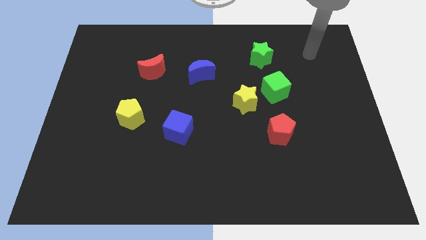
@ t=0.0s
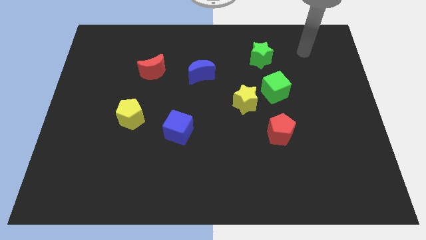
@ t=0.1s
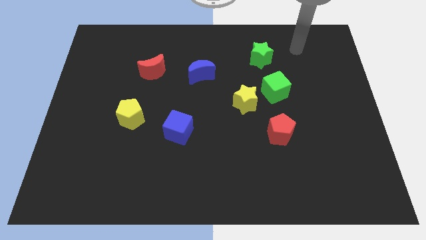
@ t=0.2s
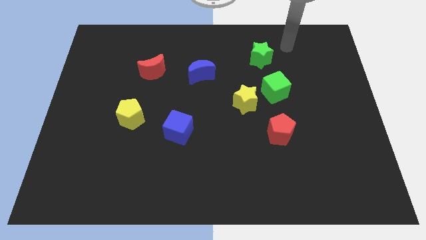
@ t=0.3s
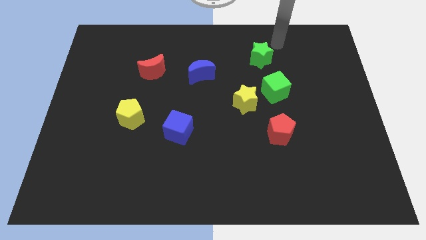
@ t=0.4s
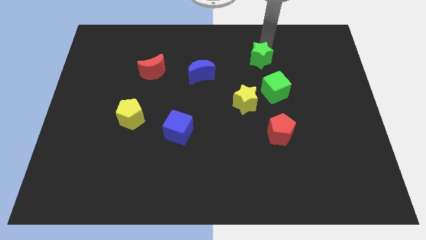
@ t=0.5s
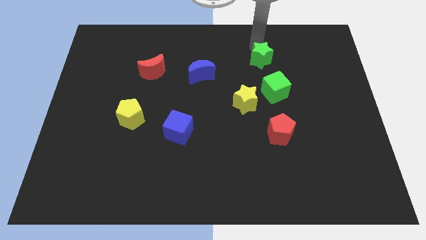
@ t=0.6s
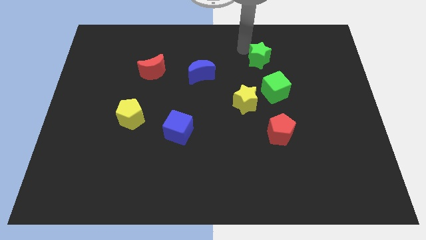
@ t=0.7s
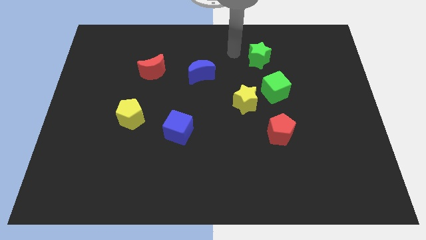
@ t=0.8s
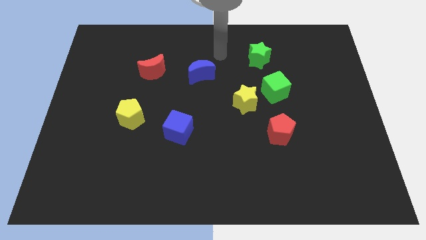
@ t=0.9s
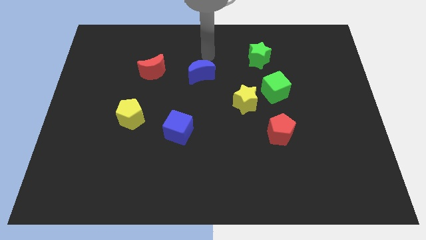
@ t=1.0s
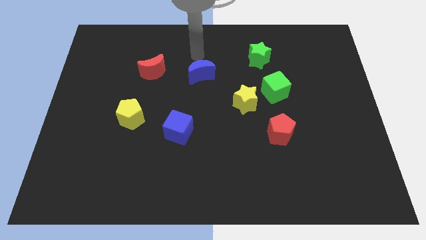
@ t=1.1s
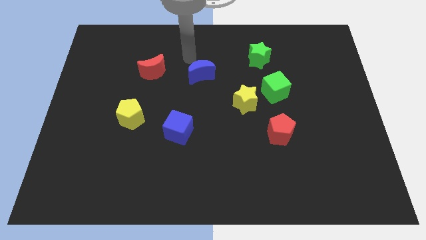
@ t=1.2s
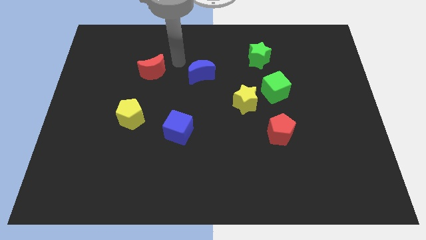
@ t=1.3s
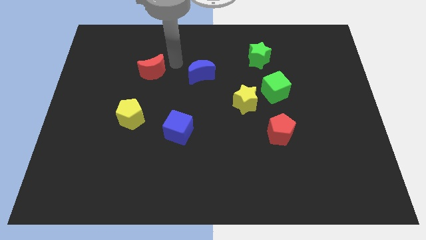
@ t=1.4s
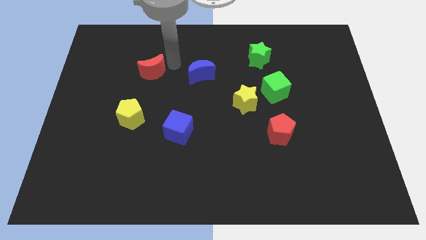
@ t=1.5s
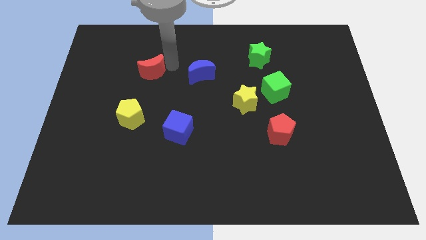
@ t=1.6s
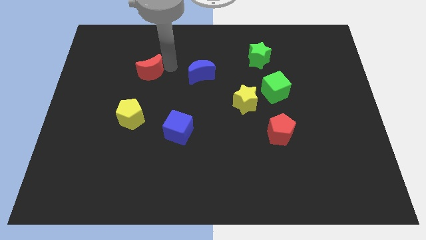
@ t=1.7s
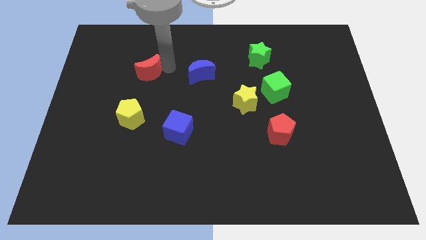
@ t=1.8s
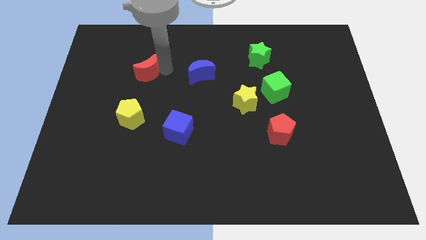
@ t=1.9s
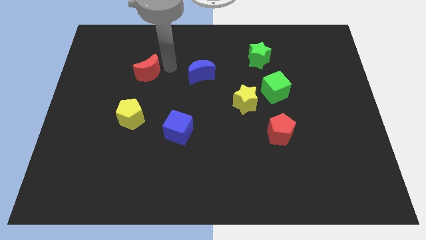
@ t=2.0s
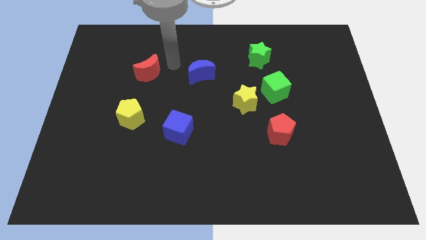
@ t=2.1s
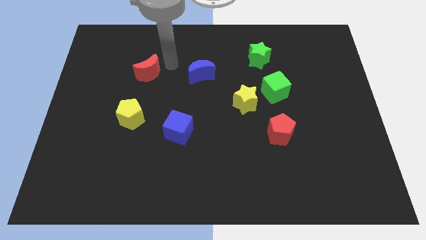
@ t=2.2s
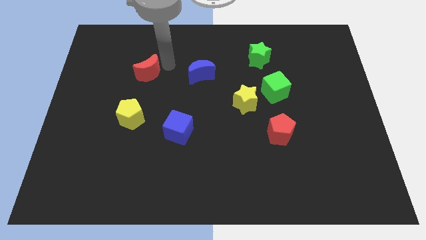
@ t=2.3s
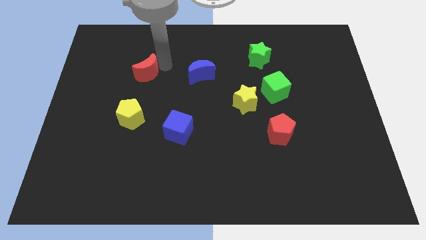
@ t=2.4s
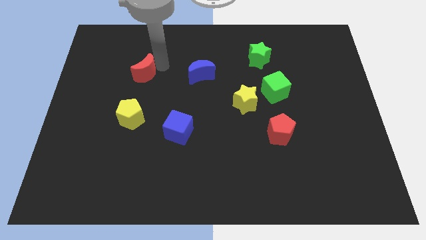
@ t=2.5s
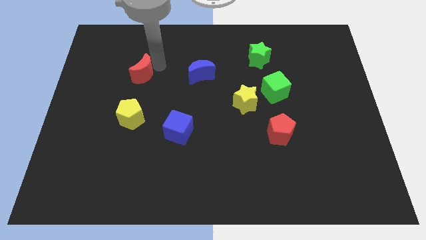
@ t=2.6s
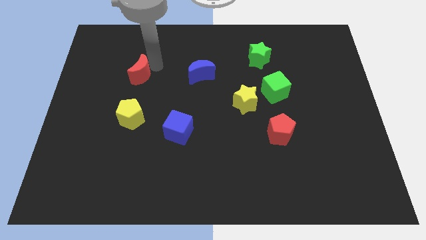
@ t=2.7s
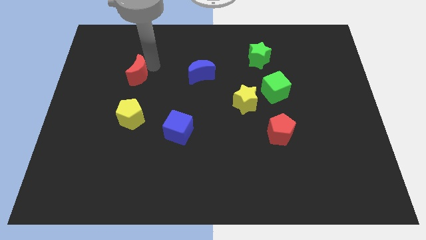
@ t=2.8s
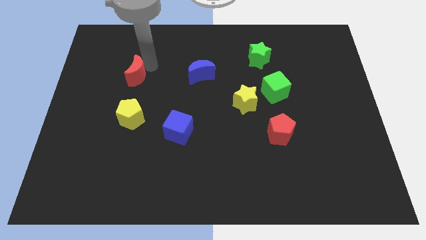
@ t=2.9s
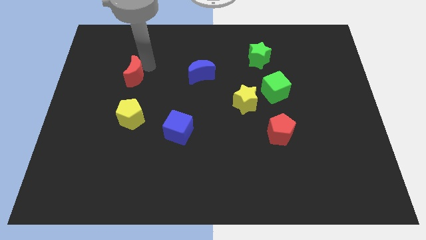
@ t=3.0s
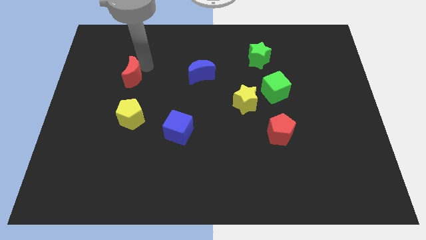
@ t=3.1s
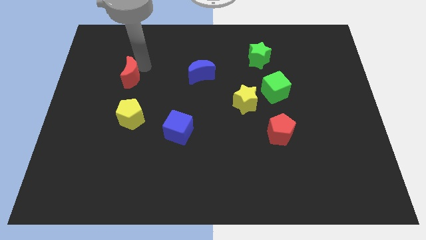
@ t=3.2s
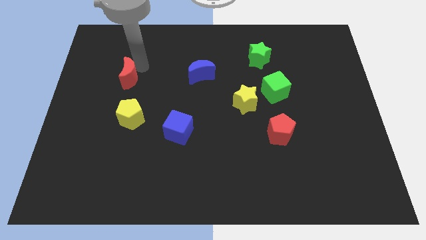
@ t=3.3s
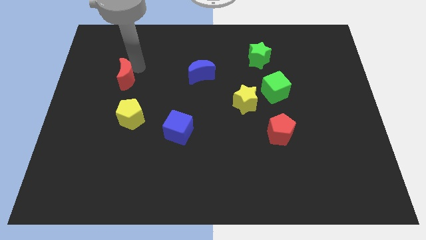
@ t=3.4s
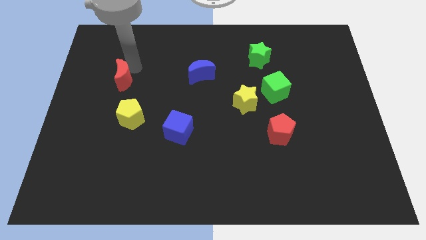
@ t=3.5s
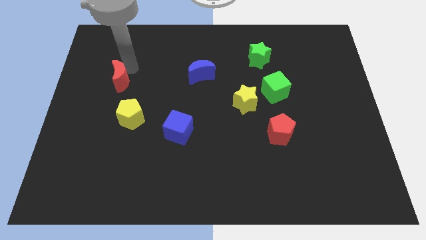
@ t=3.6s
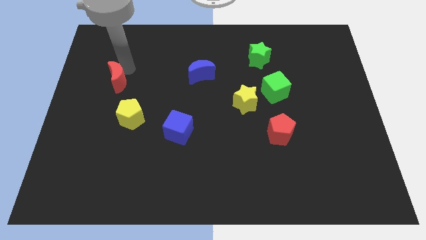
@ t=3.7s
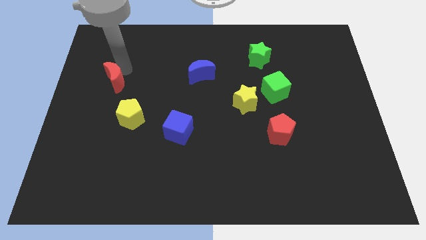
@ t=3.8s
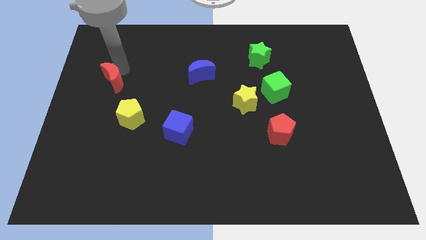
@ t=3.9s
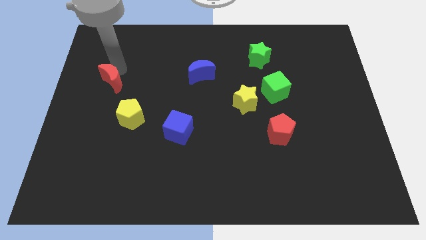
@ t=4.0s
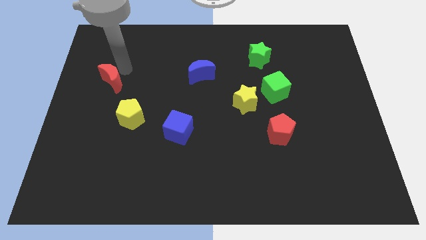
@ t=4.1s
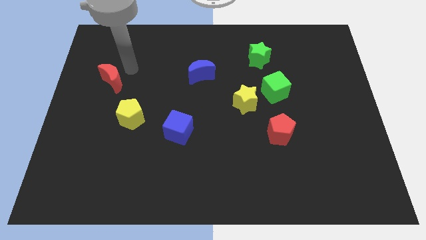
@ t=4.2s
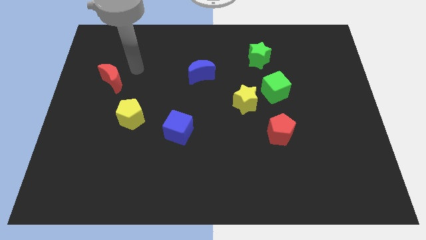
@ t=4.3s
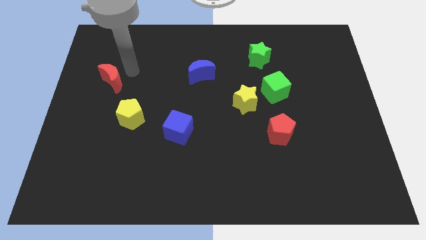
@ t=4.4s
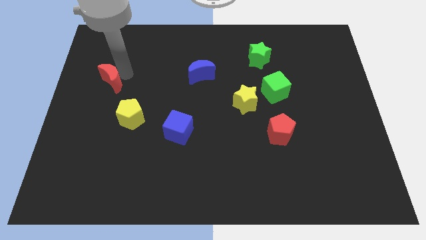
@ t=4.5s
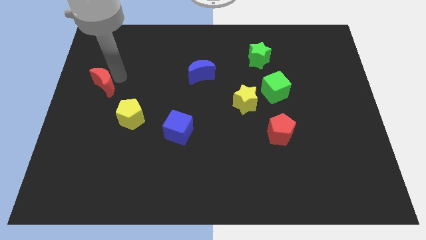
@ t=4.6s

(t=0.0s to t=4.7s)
slide the red moon to the left side of the board

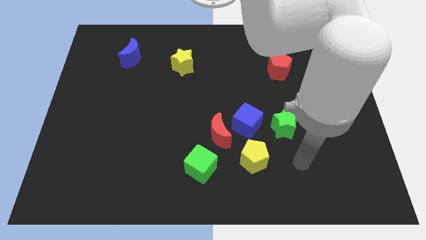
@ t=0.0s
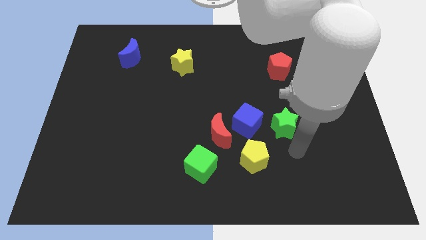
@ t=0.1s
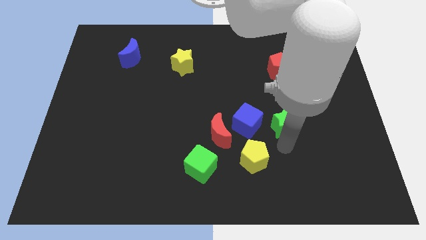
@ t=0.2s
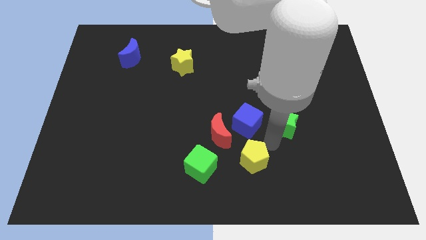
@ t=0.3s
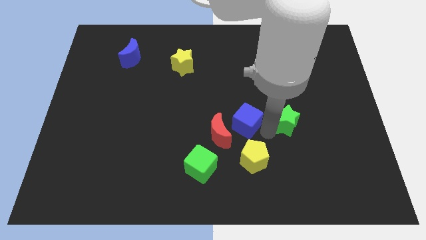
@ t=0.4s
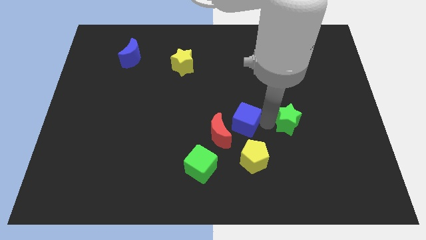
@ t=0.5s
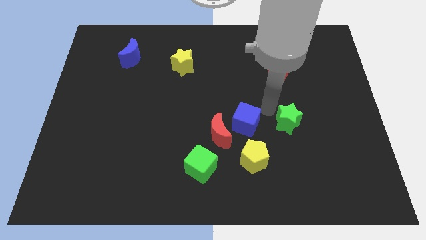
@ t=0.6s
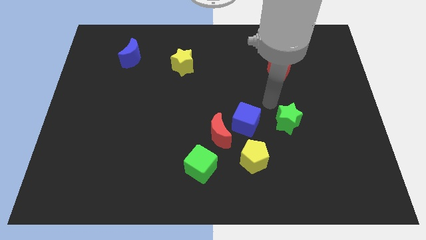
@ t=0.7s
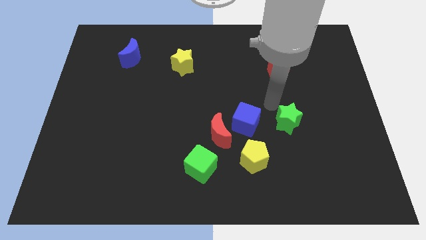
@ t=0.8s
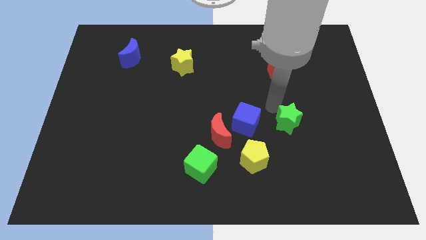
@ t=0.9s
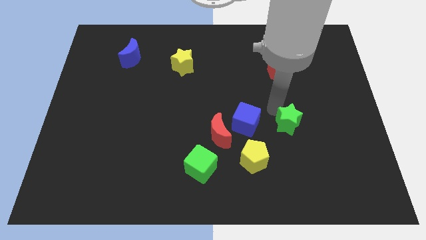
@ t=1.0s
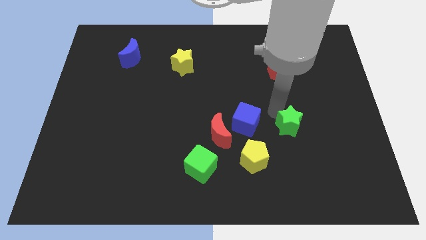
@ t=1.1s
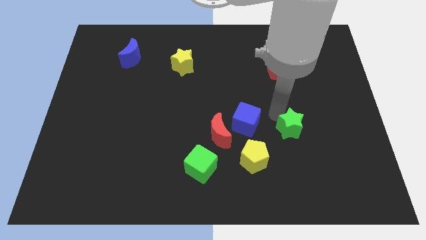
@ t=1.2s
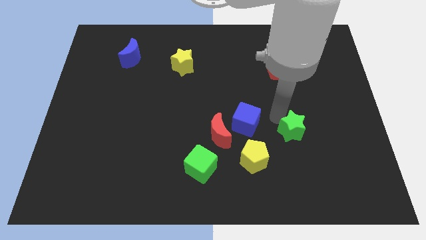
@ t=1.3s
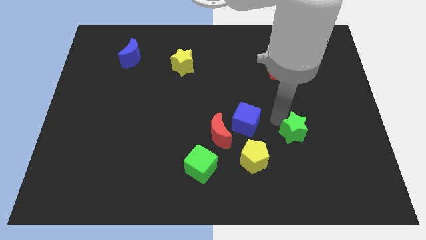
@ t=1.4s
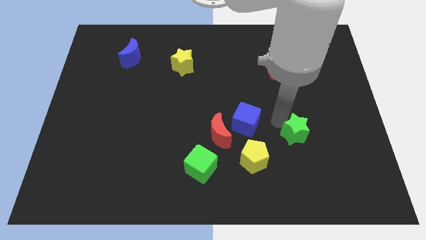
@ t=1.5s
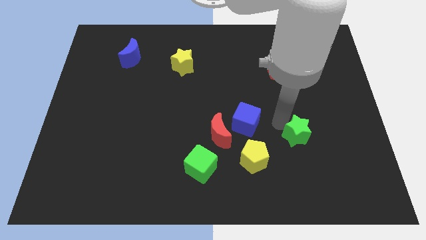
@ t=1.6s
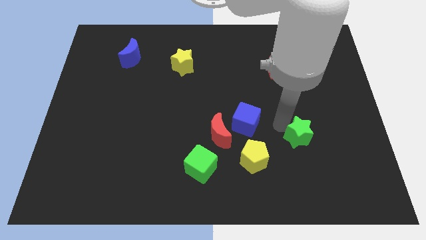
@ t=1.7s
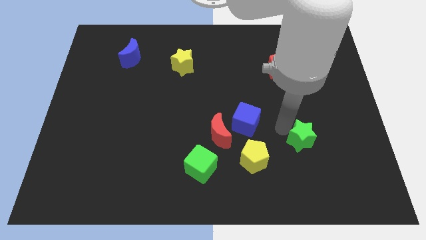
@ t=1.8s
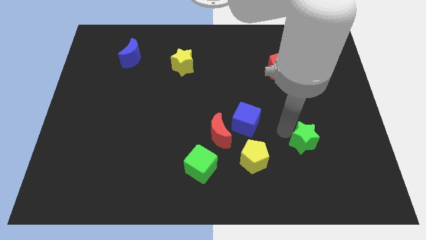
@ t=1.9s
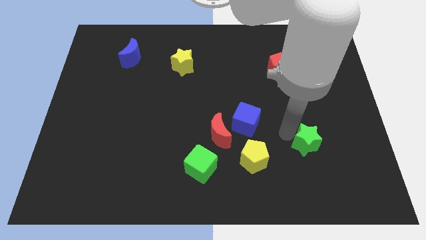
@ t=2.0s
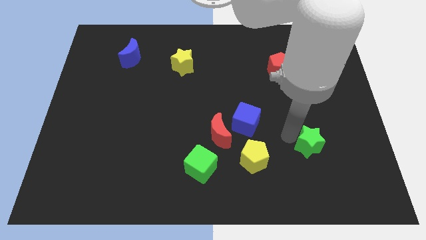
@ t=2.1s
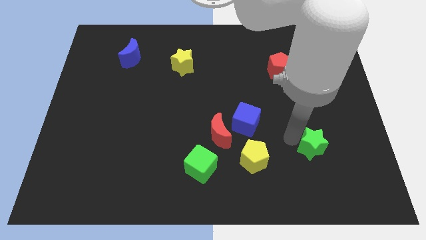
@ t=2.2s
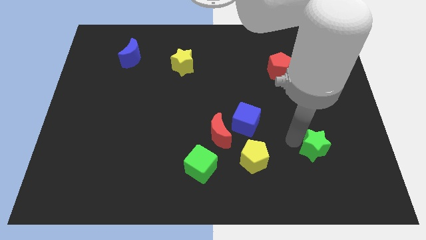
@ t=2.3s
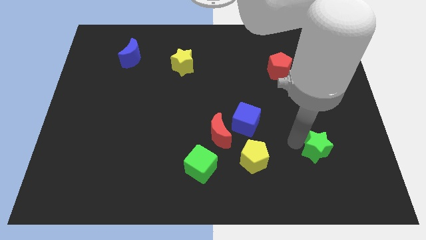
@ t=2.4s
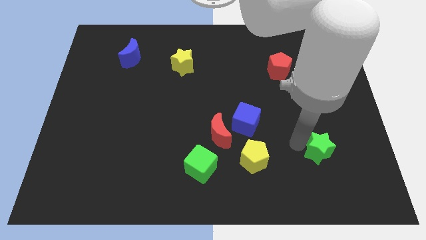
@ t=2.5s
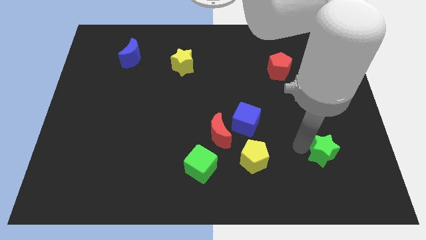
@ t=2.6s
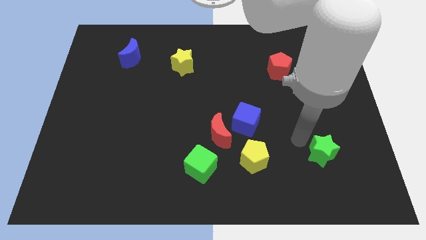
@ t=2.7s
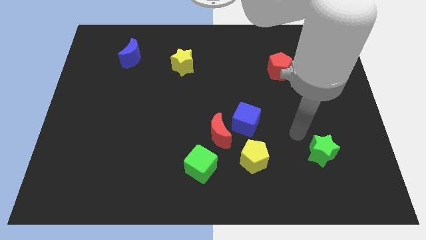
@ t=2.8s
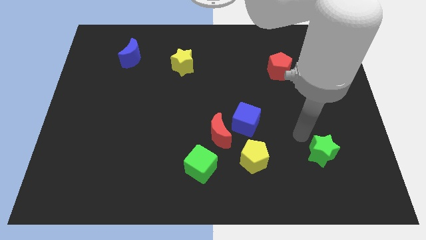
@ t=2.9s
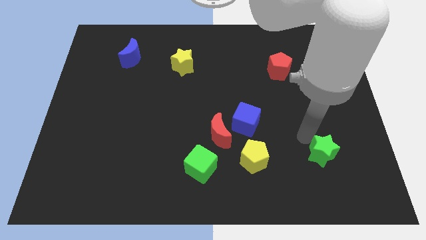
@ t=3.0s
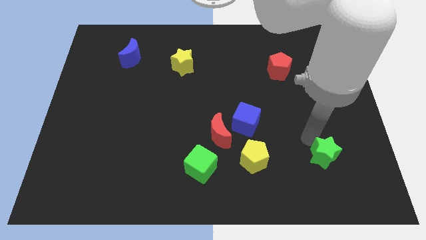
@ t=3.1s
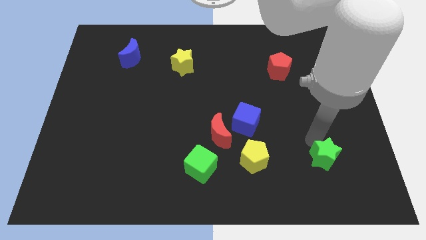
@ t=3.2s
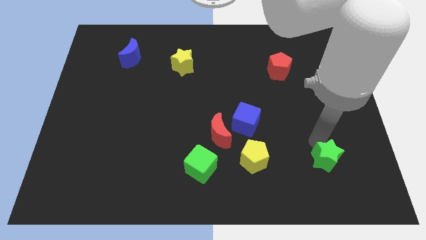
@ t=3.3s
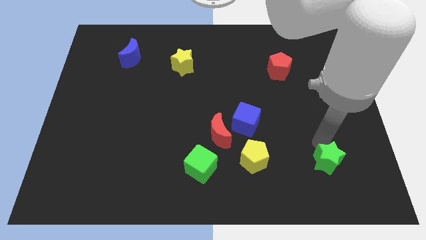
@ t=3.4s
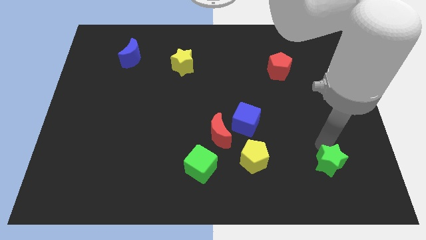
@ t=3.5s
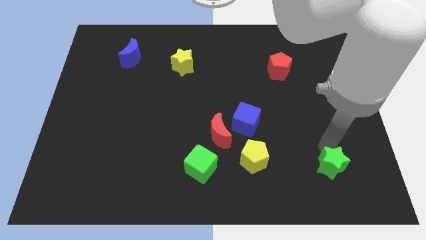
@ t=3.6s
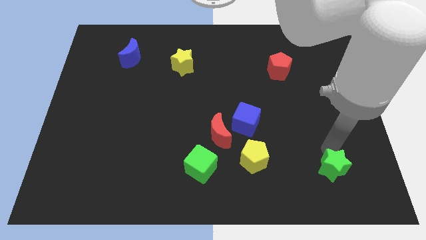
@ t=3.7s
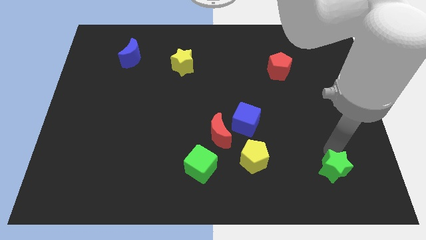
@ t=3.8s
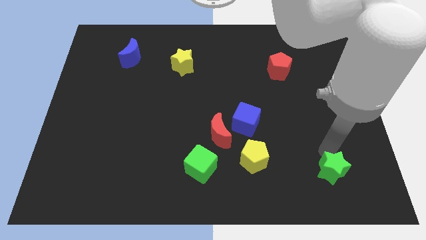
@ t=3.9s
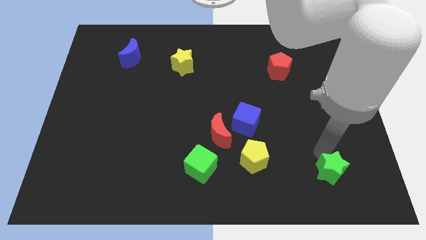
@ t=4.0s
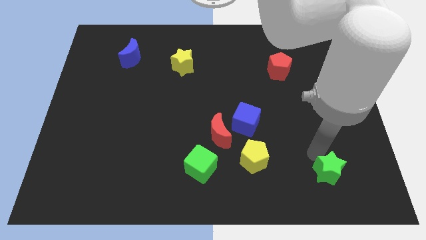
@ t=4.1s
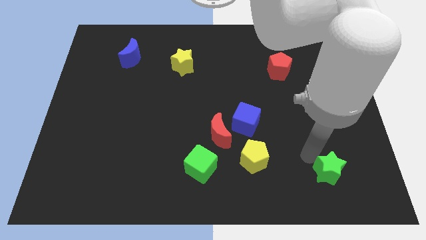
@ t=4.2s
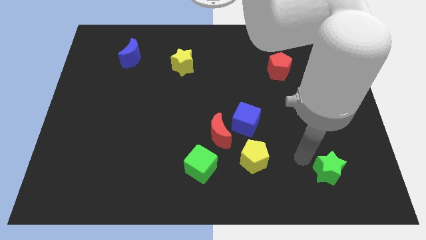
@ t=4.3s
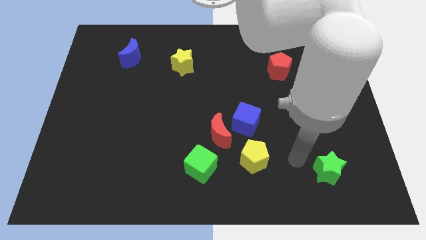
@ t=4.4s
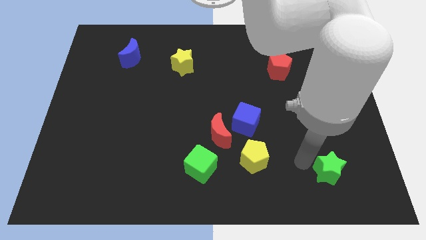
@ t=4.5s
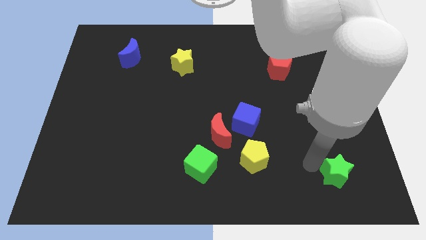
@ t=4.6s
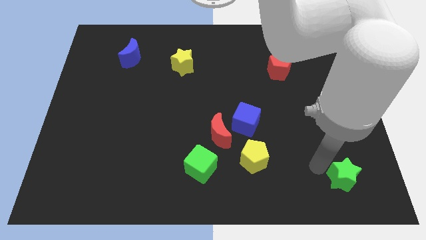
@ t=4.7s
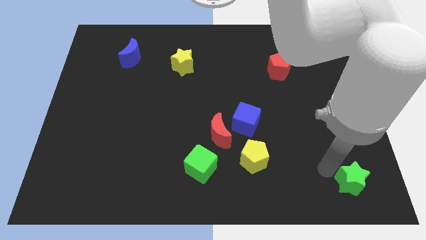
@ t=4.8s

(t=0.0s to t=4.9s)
push the green star to the bottom right corner
